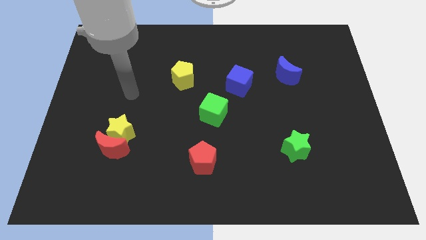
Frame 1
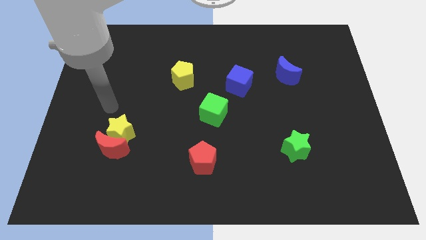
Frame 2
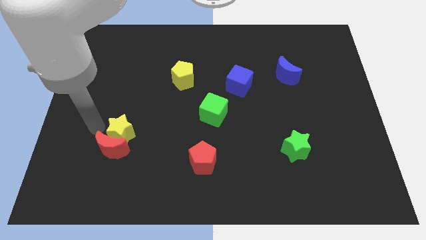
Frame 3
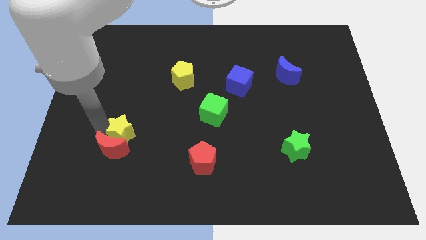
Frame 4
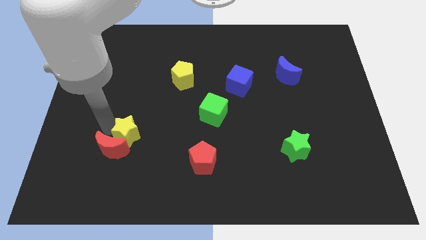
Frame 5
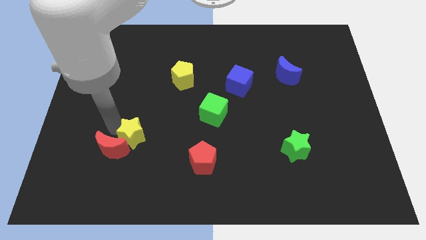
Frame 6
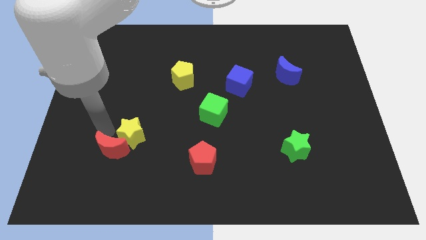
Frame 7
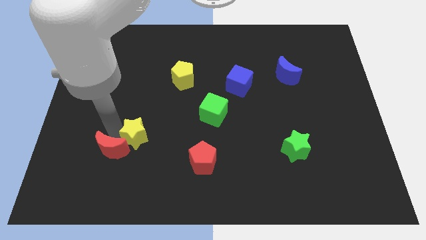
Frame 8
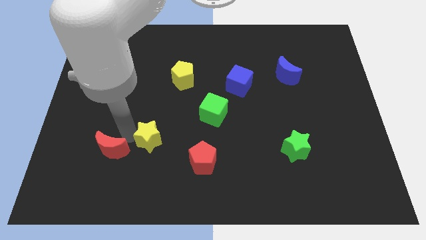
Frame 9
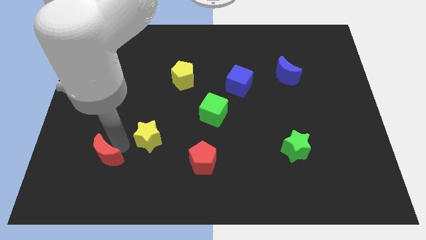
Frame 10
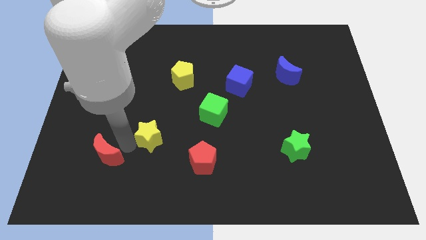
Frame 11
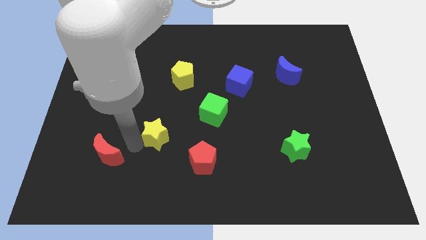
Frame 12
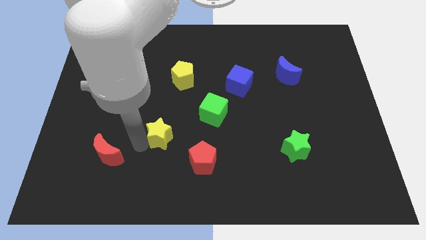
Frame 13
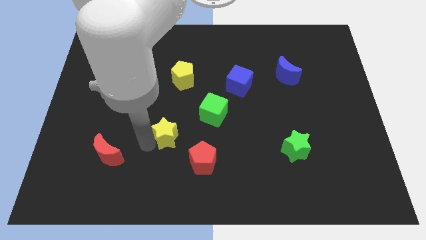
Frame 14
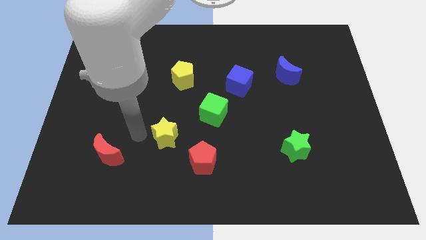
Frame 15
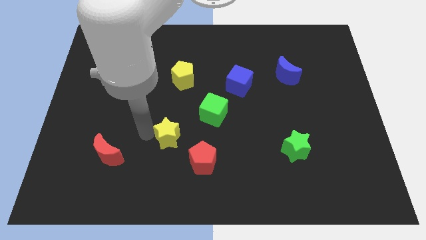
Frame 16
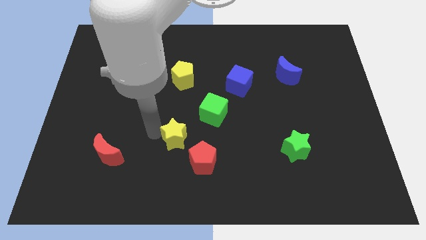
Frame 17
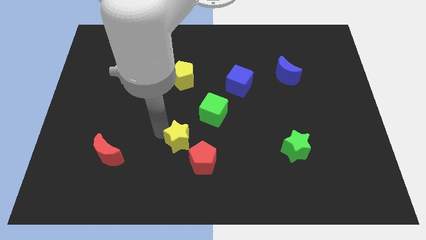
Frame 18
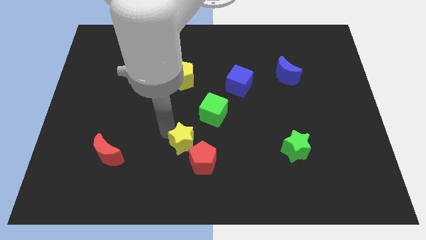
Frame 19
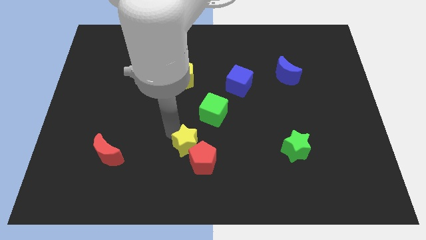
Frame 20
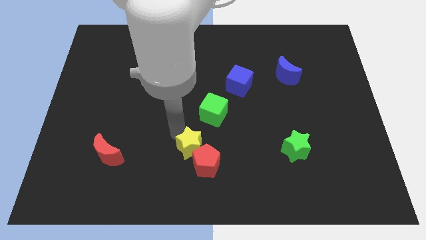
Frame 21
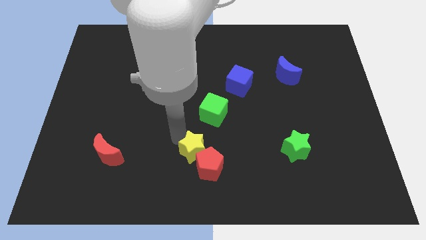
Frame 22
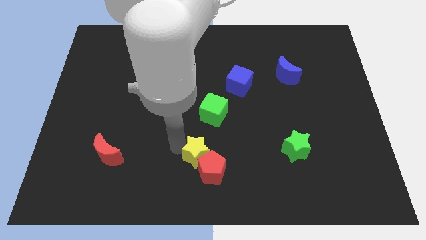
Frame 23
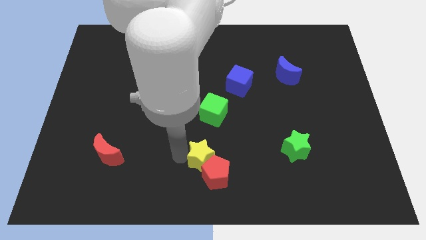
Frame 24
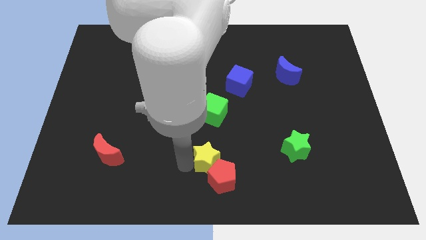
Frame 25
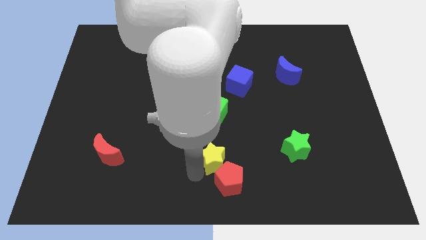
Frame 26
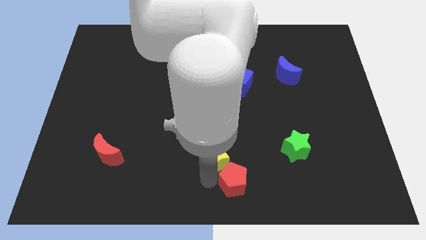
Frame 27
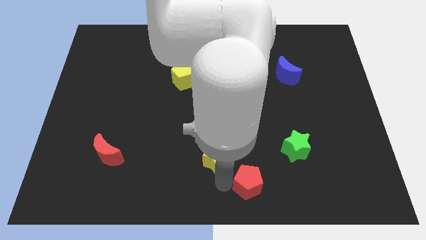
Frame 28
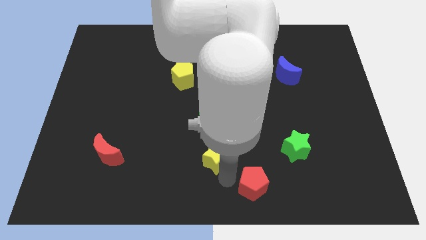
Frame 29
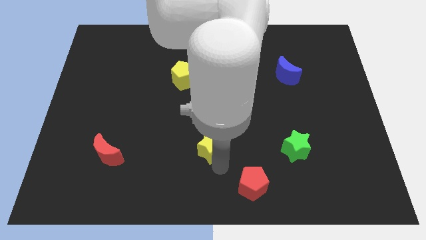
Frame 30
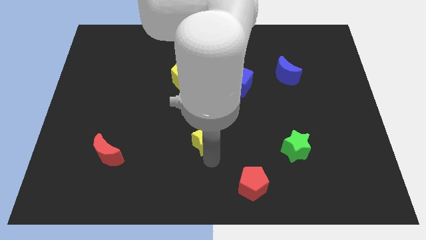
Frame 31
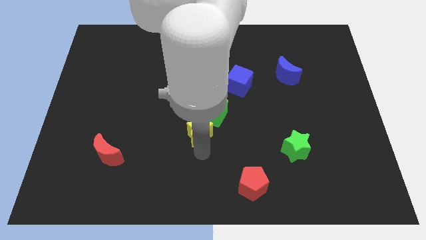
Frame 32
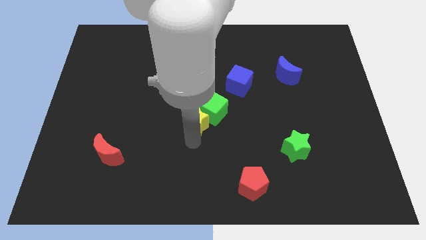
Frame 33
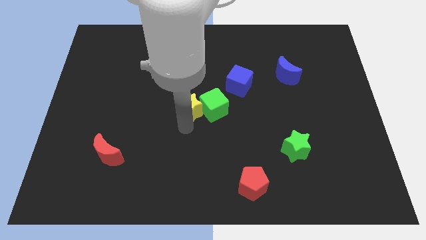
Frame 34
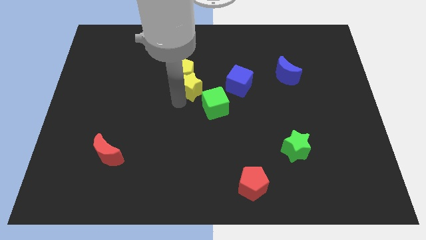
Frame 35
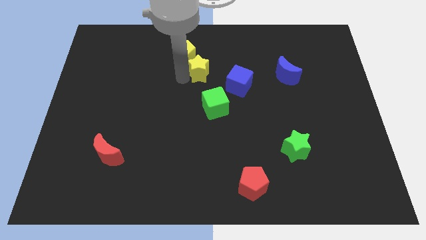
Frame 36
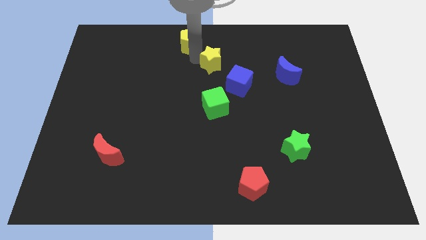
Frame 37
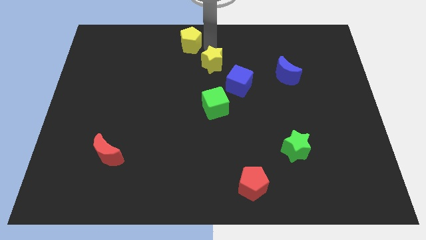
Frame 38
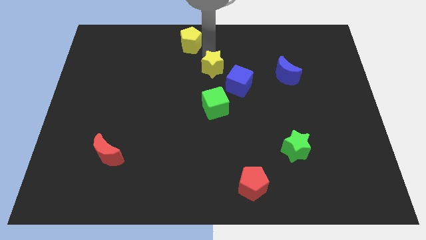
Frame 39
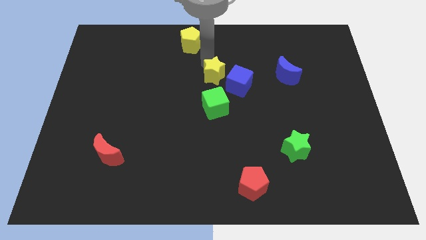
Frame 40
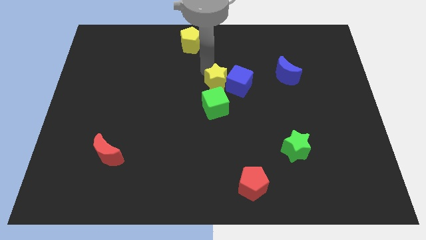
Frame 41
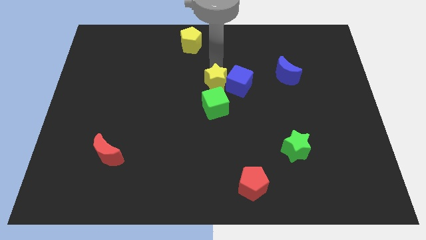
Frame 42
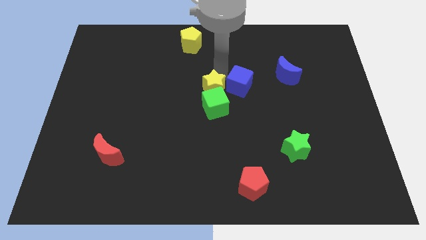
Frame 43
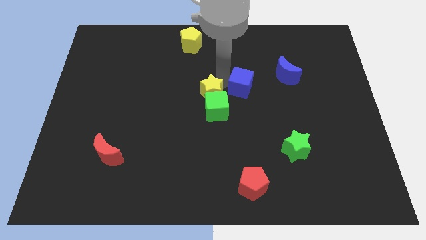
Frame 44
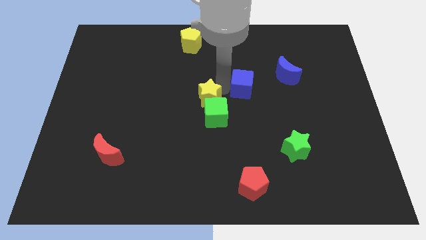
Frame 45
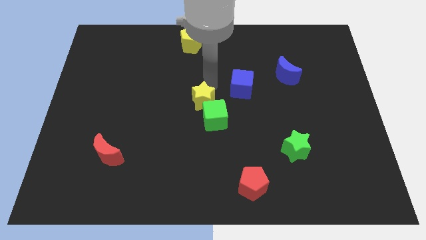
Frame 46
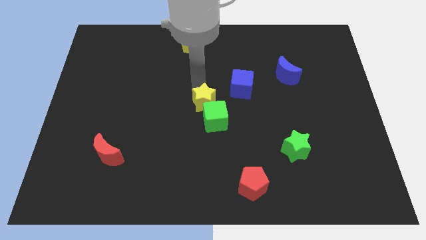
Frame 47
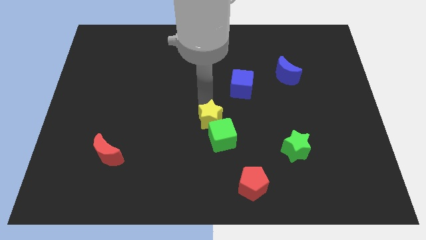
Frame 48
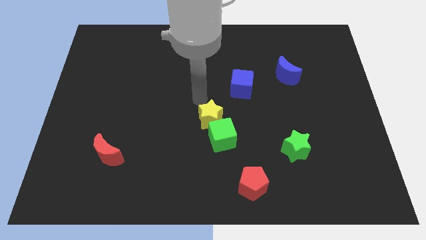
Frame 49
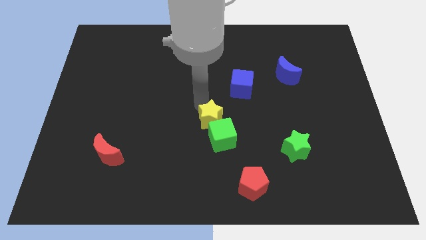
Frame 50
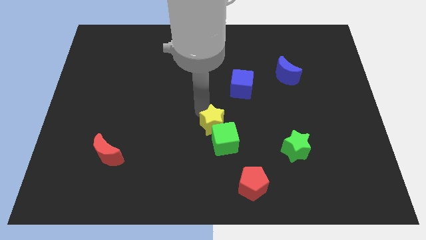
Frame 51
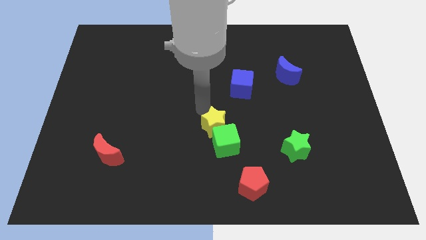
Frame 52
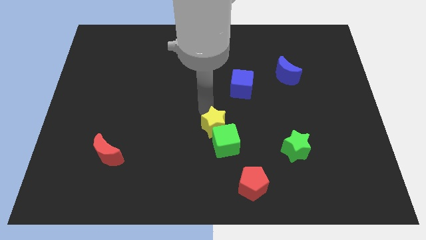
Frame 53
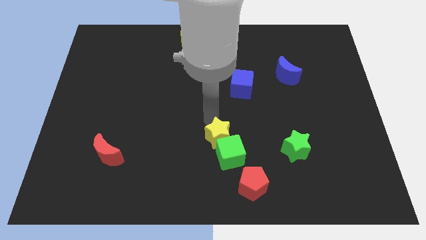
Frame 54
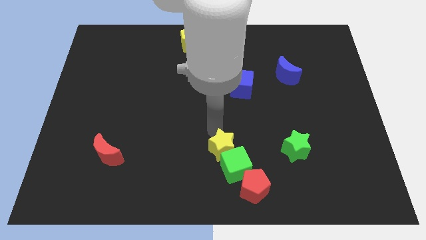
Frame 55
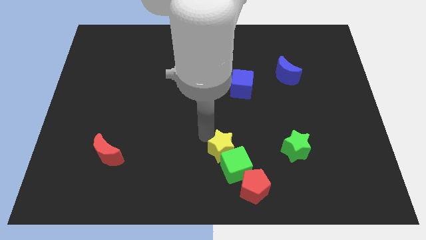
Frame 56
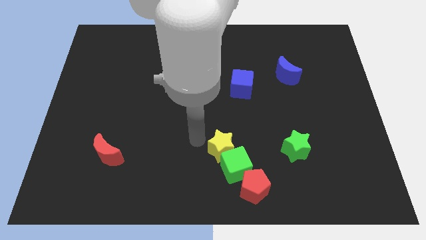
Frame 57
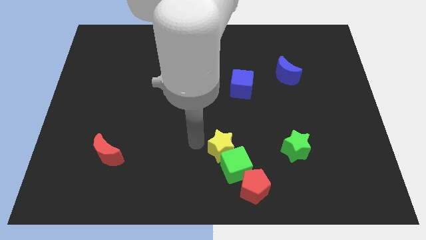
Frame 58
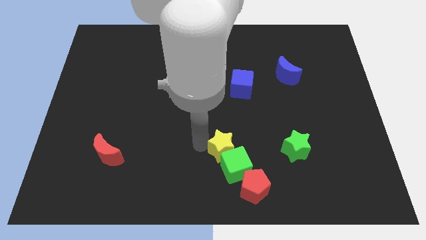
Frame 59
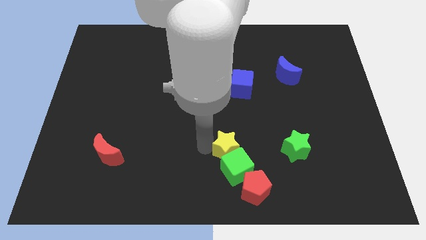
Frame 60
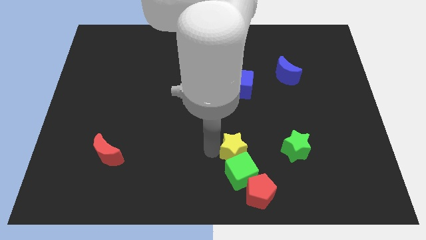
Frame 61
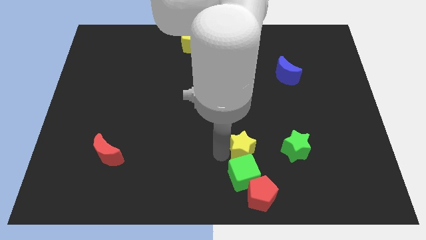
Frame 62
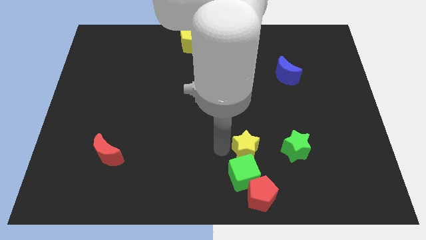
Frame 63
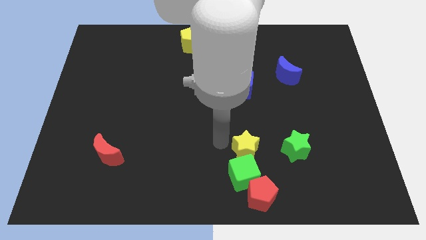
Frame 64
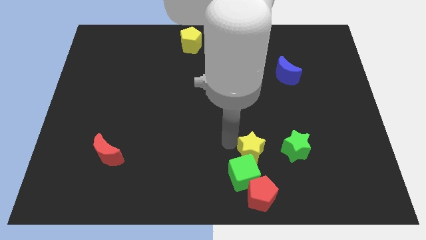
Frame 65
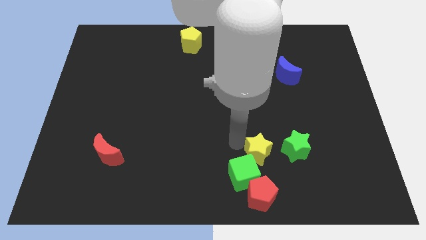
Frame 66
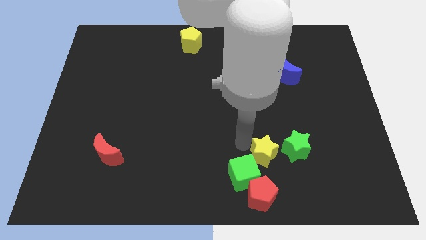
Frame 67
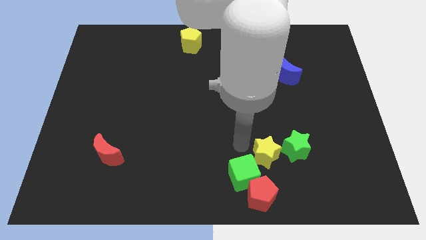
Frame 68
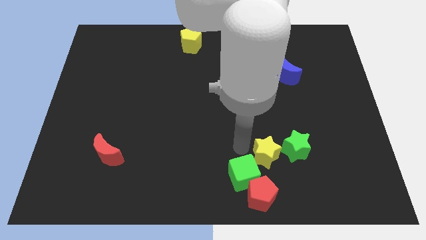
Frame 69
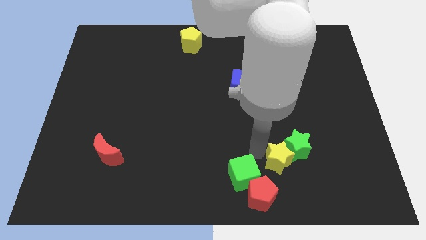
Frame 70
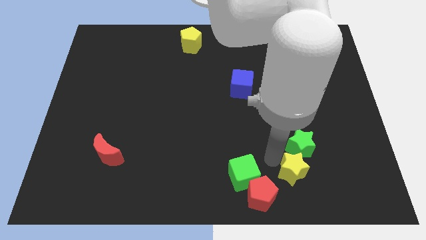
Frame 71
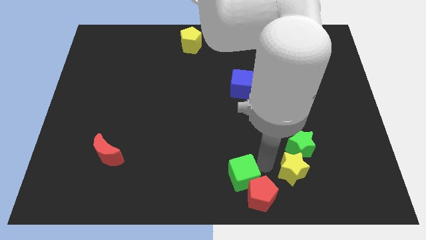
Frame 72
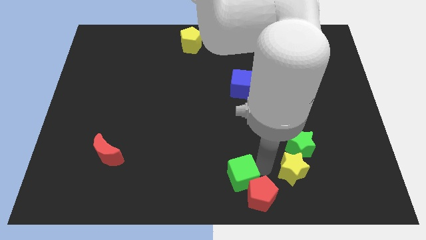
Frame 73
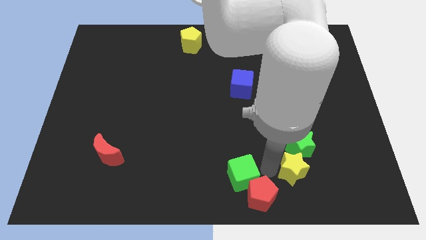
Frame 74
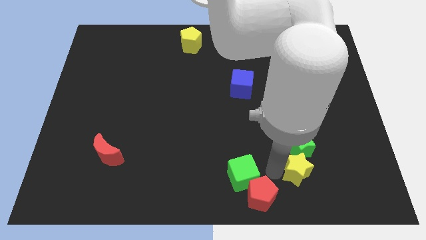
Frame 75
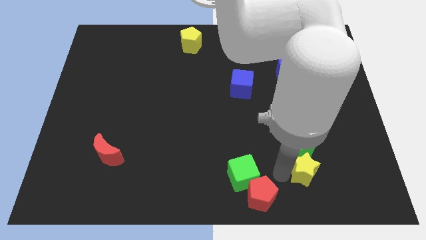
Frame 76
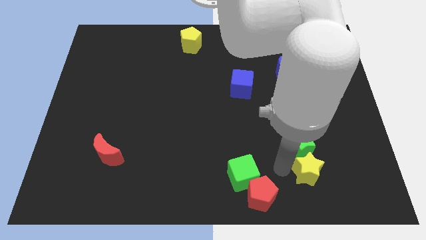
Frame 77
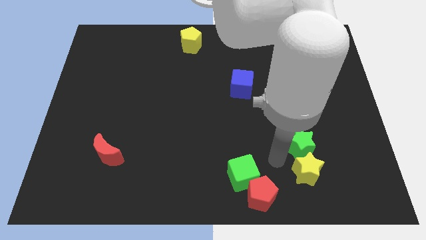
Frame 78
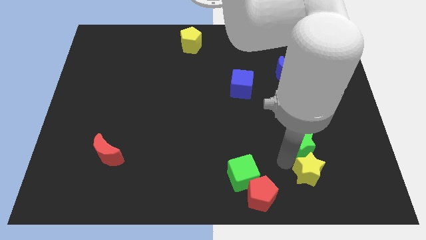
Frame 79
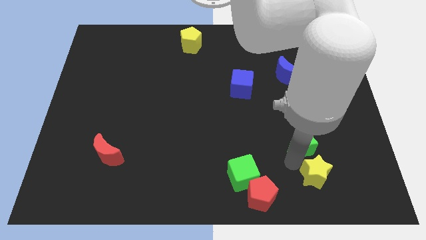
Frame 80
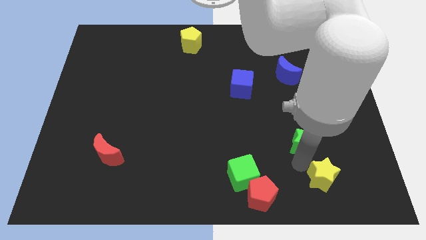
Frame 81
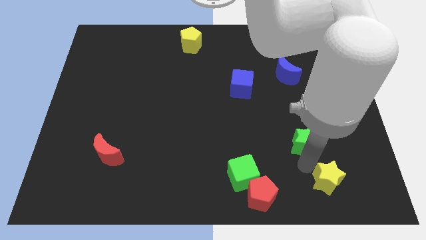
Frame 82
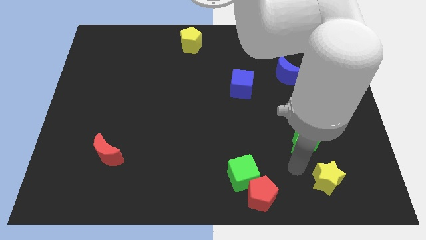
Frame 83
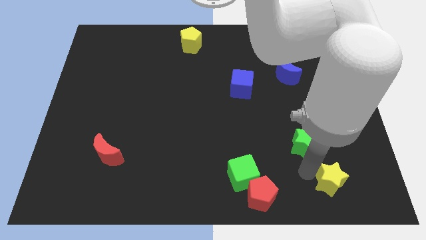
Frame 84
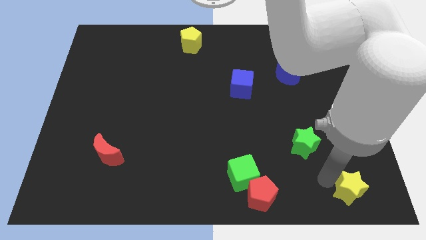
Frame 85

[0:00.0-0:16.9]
move the yellow star to the lower right corner
